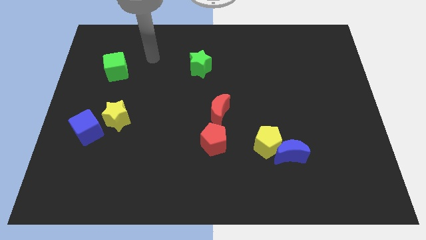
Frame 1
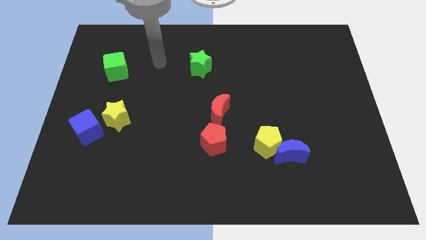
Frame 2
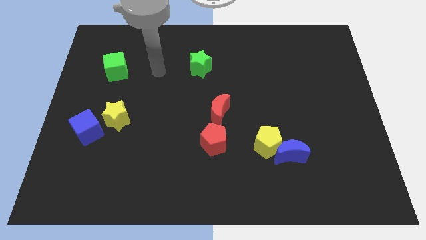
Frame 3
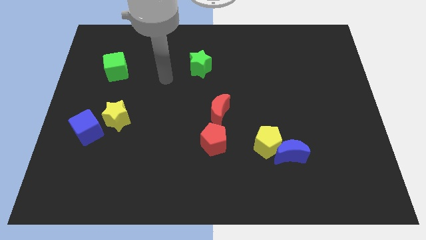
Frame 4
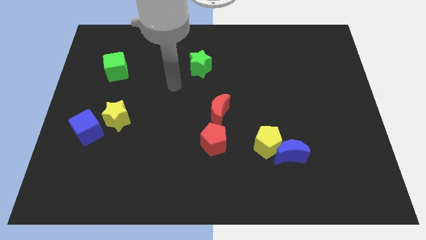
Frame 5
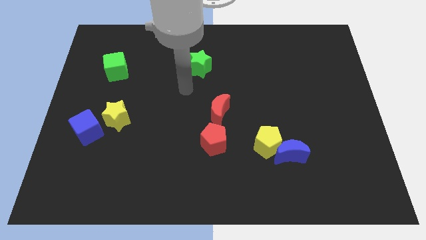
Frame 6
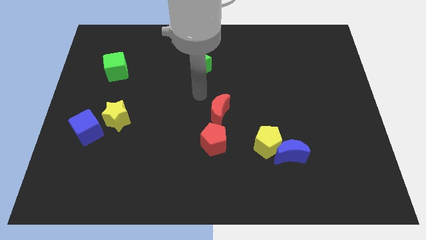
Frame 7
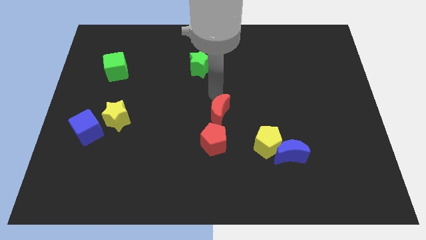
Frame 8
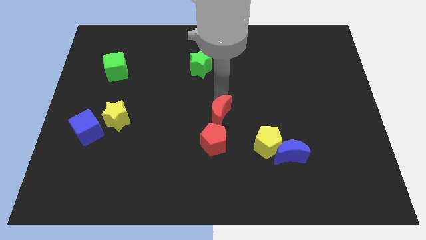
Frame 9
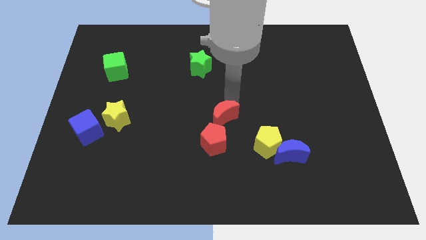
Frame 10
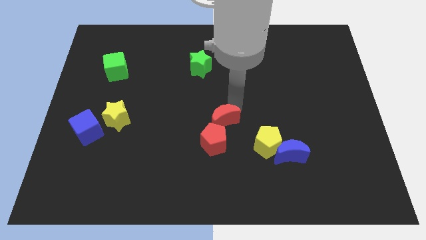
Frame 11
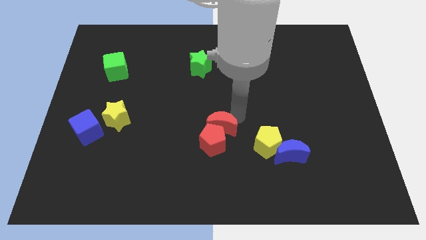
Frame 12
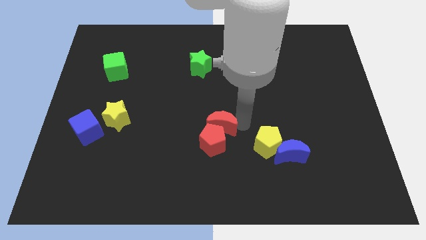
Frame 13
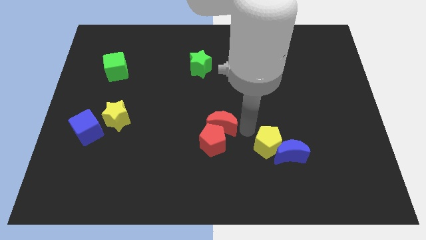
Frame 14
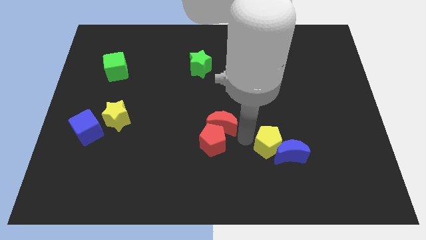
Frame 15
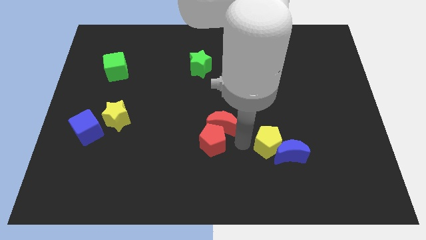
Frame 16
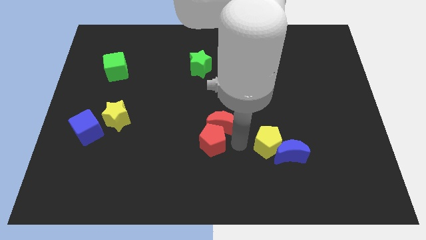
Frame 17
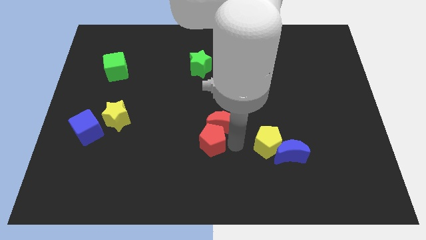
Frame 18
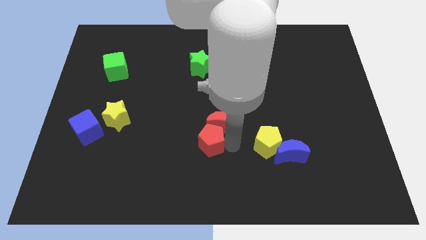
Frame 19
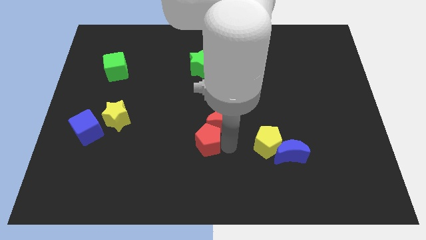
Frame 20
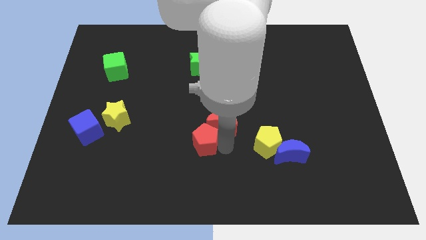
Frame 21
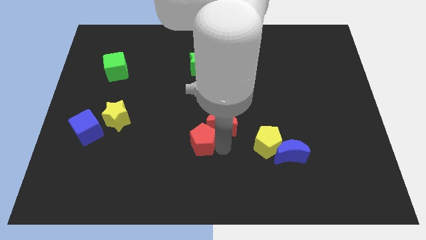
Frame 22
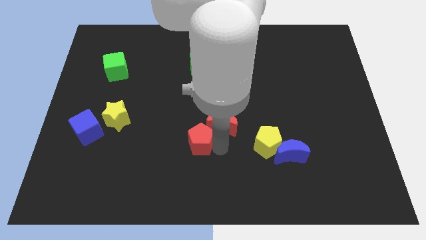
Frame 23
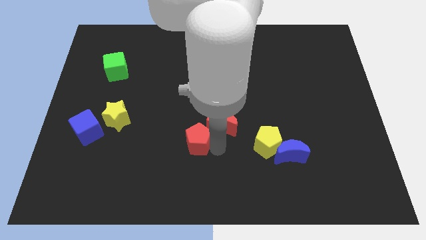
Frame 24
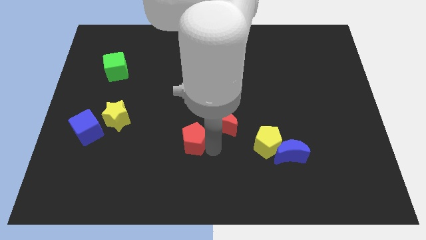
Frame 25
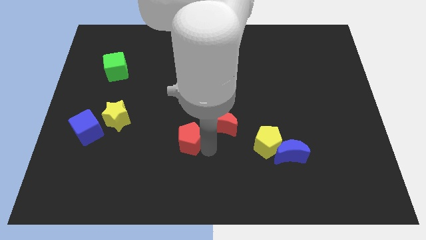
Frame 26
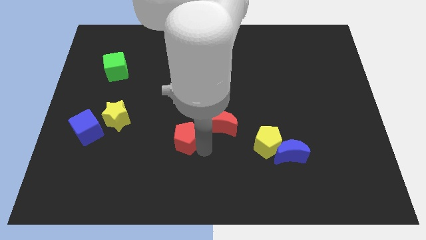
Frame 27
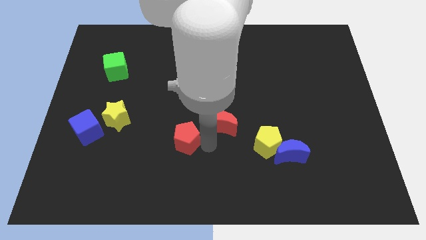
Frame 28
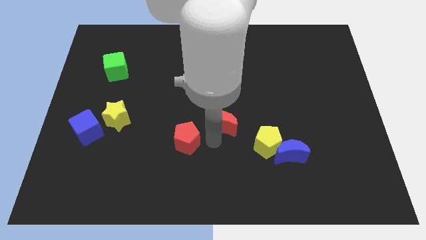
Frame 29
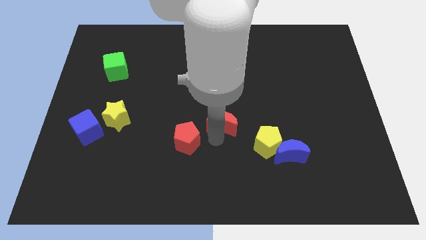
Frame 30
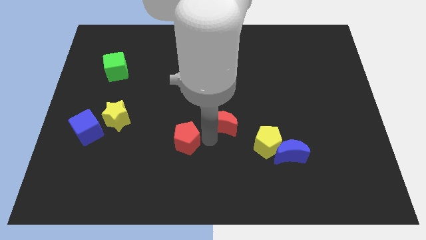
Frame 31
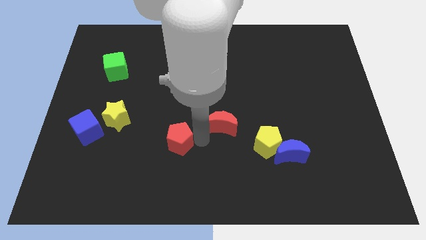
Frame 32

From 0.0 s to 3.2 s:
move the red pentagon a bit left

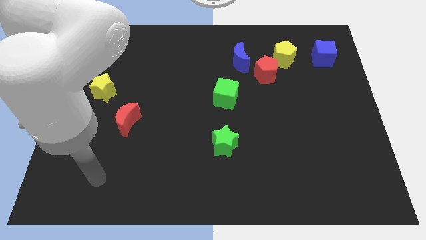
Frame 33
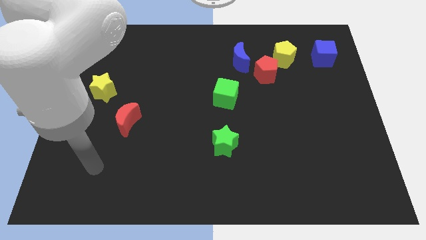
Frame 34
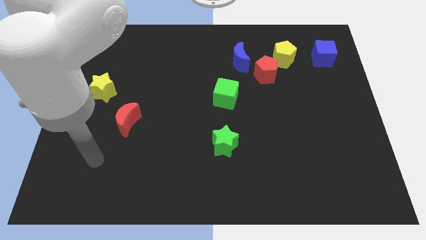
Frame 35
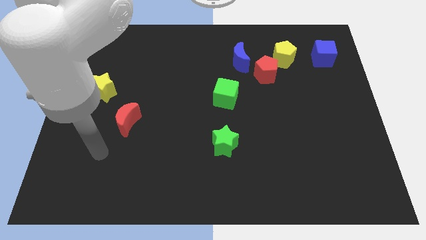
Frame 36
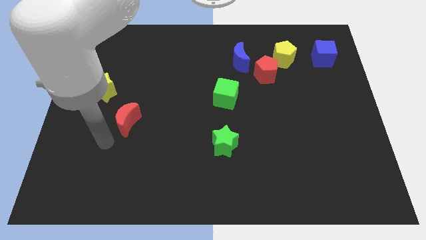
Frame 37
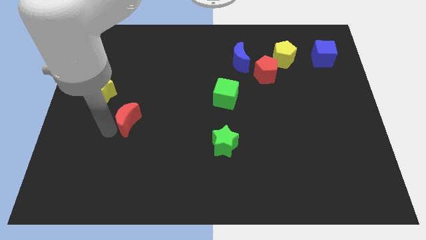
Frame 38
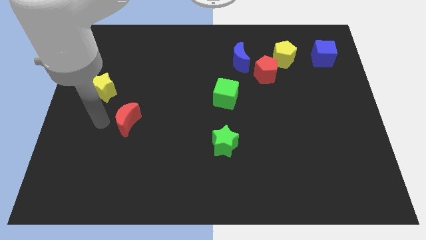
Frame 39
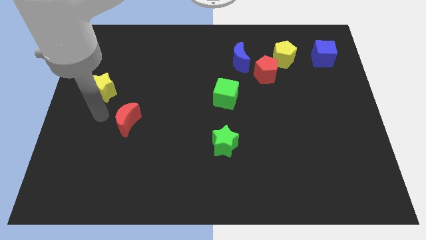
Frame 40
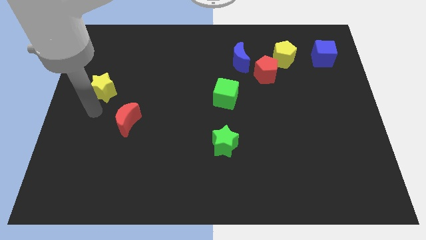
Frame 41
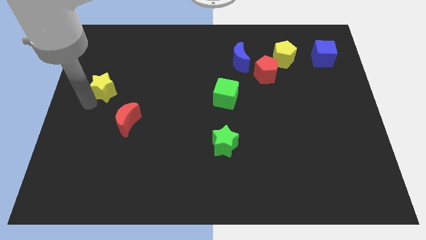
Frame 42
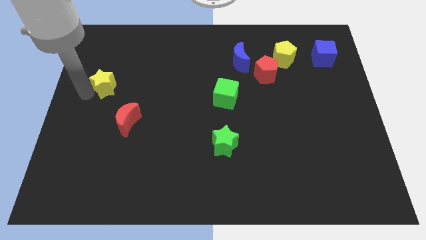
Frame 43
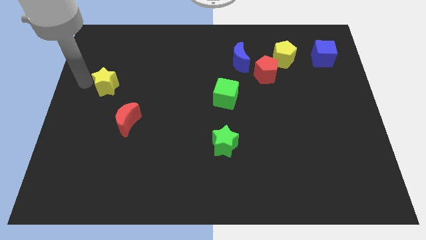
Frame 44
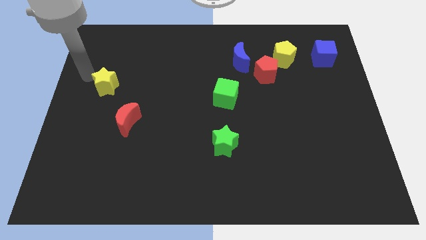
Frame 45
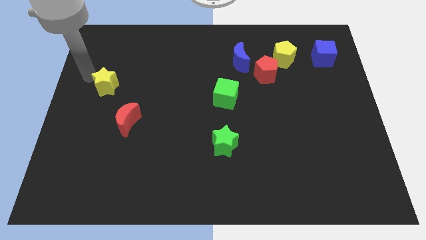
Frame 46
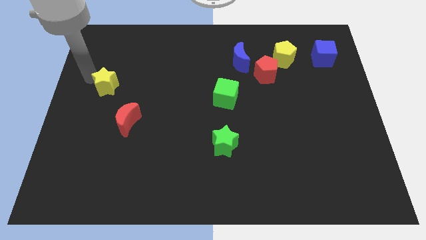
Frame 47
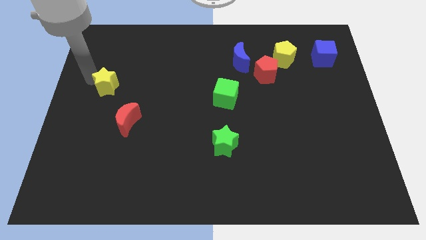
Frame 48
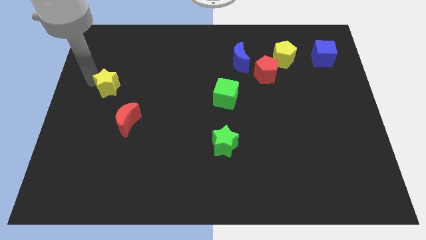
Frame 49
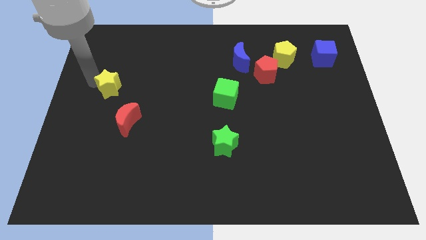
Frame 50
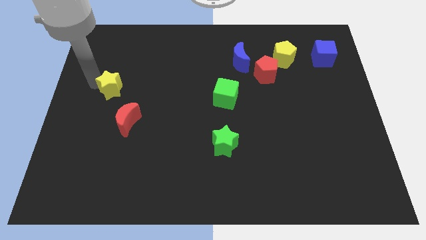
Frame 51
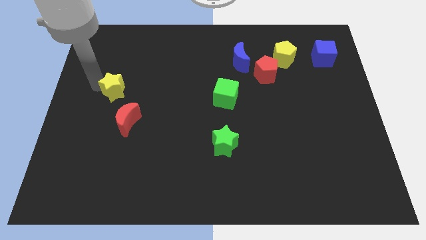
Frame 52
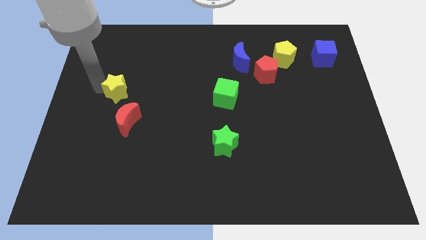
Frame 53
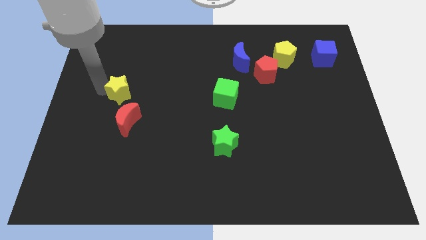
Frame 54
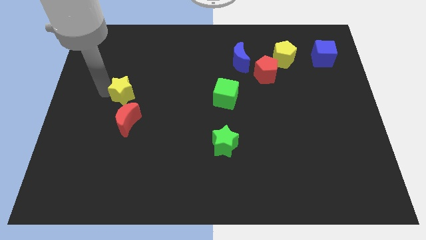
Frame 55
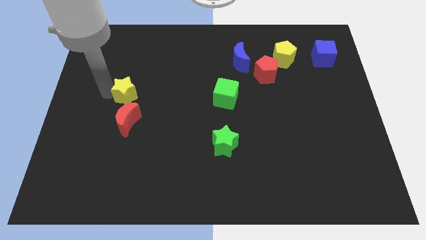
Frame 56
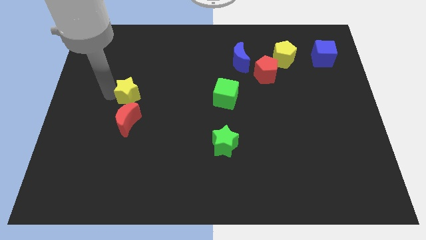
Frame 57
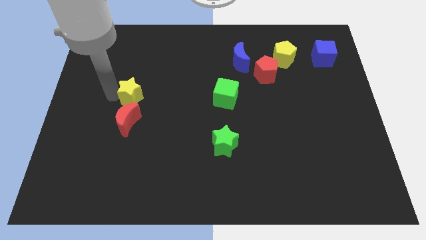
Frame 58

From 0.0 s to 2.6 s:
push the yellow star right a bit

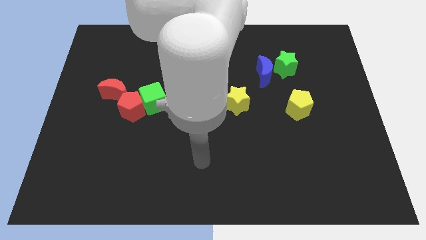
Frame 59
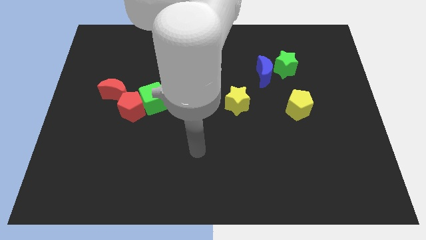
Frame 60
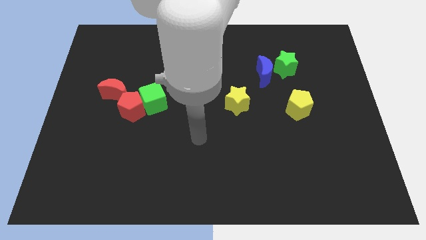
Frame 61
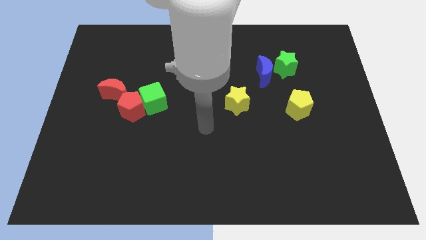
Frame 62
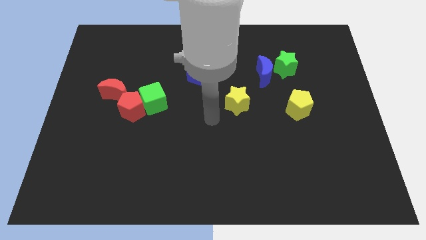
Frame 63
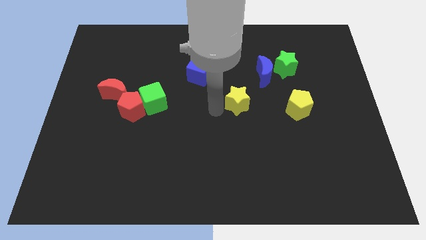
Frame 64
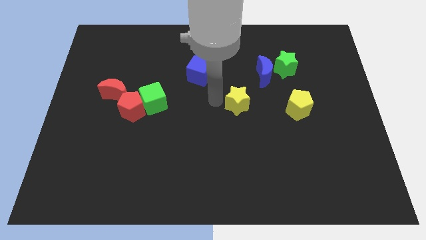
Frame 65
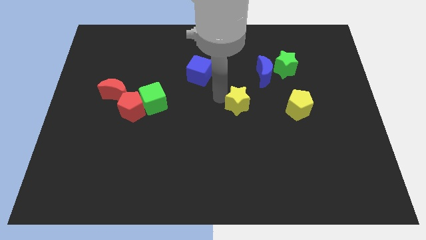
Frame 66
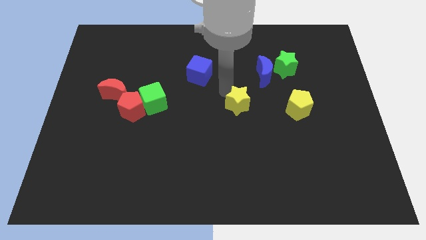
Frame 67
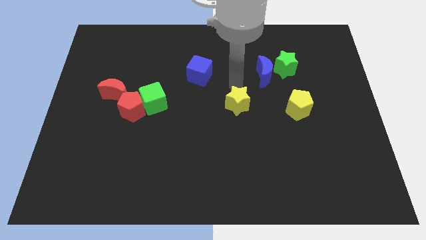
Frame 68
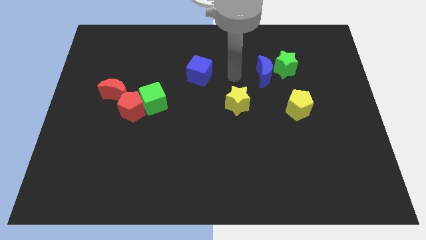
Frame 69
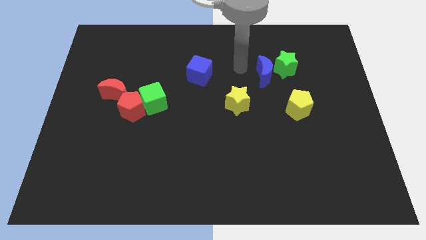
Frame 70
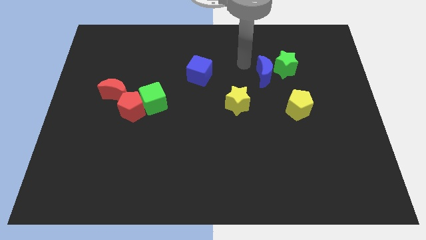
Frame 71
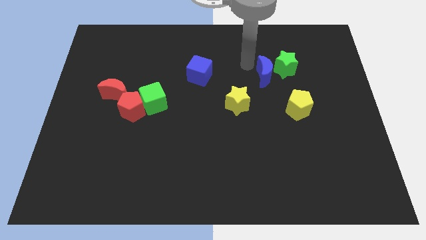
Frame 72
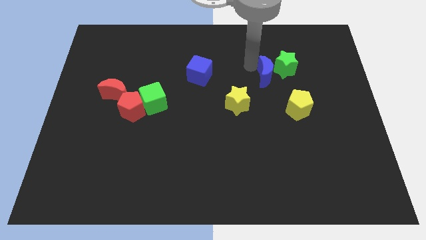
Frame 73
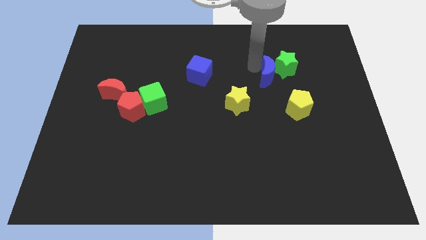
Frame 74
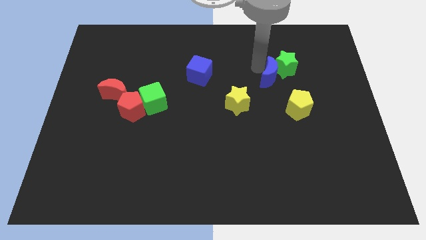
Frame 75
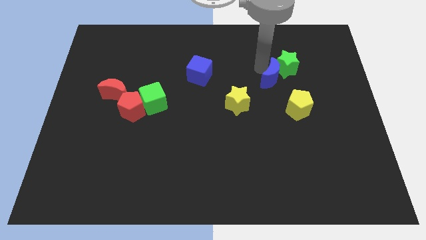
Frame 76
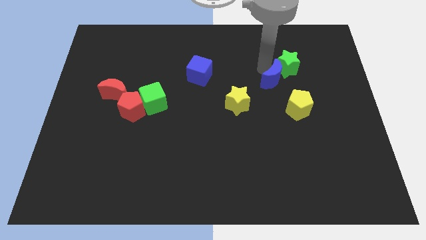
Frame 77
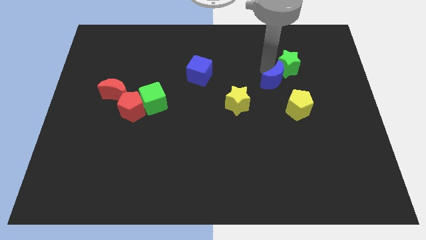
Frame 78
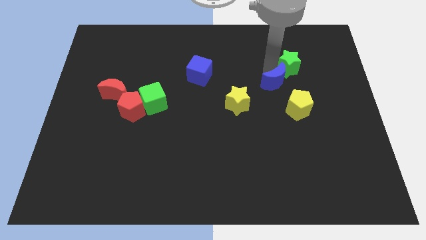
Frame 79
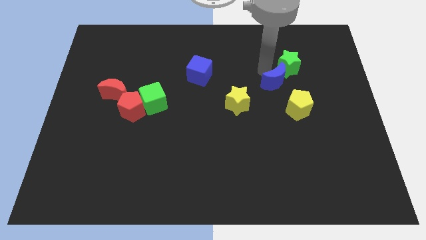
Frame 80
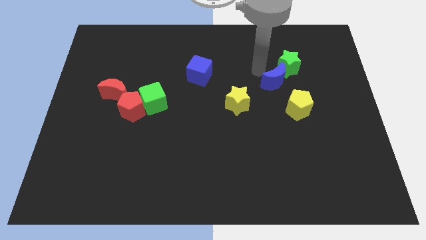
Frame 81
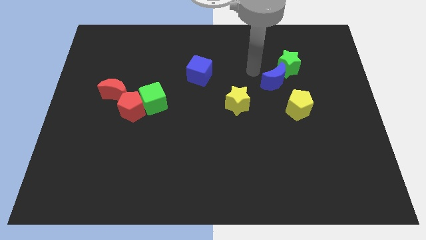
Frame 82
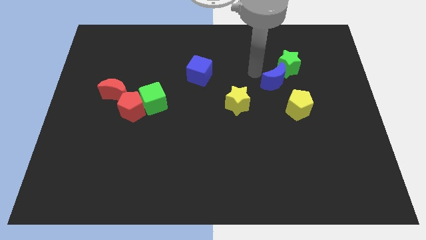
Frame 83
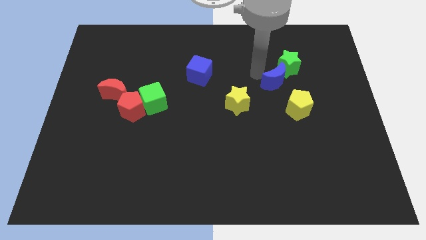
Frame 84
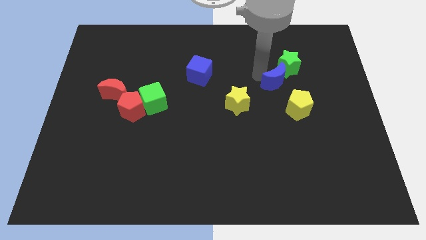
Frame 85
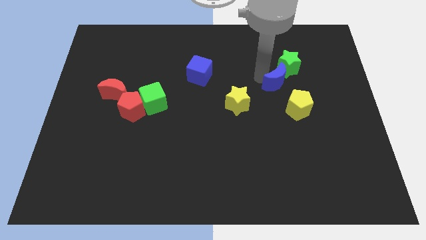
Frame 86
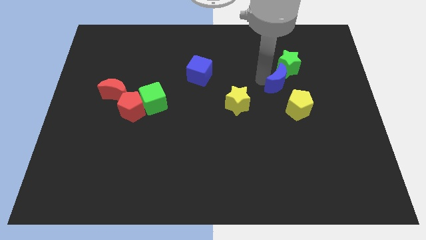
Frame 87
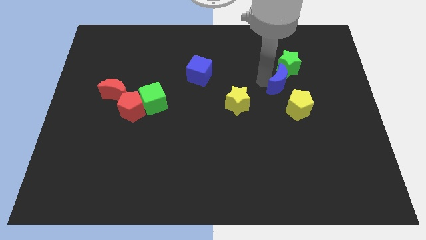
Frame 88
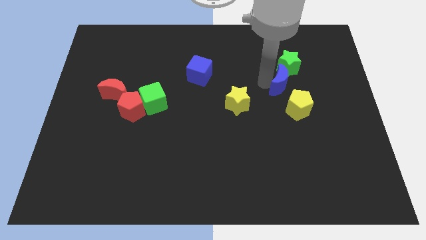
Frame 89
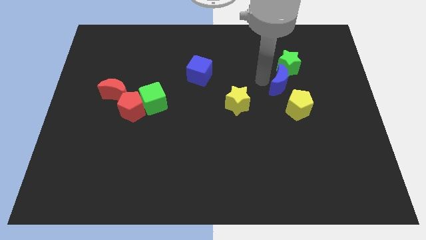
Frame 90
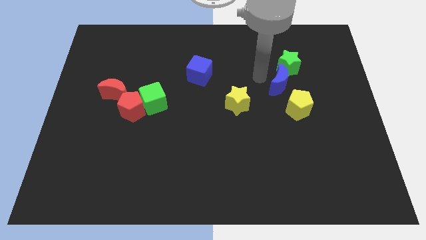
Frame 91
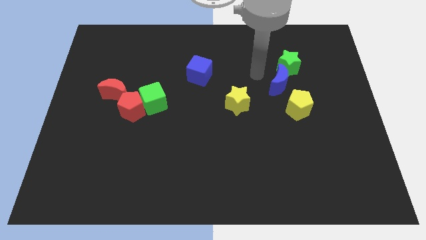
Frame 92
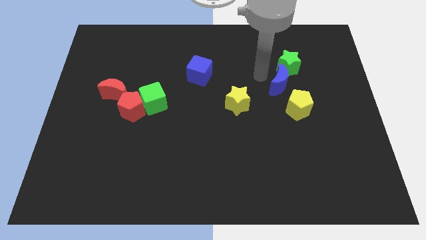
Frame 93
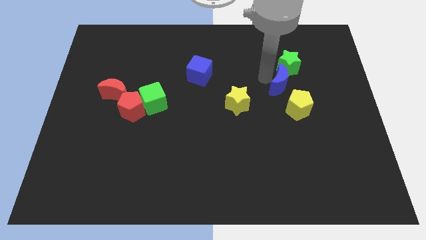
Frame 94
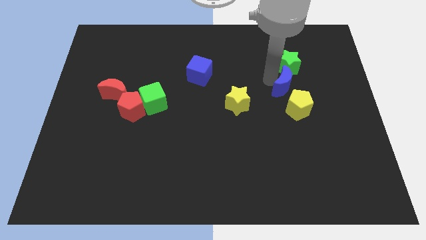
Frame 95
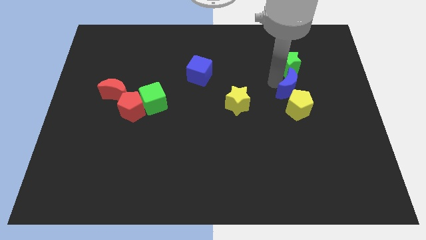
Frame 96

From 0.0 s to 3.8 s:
slightly move the blue moon downwards and then right
